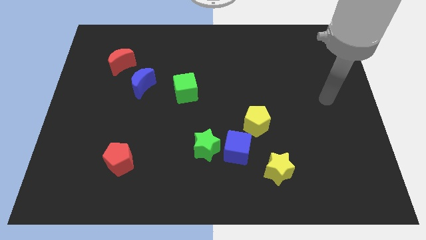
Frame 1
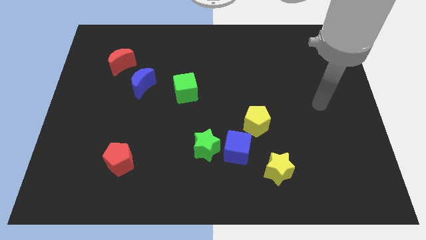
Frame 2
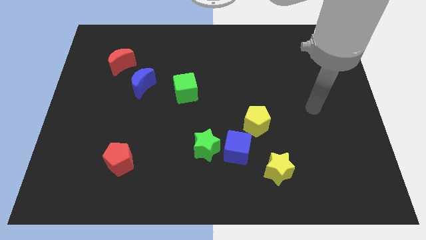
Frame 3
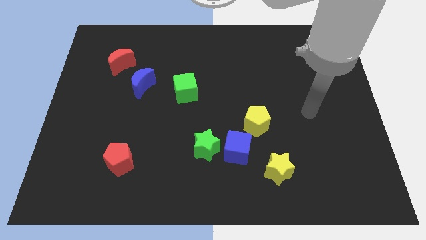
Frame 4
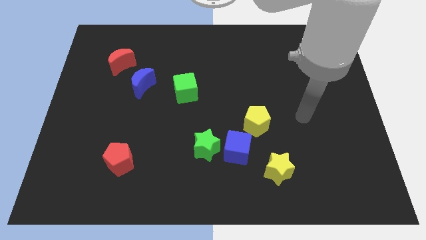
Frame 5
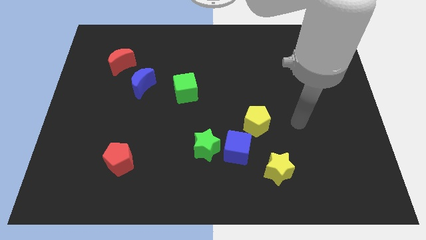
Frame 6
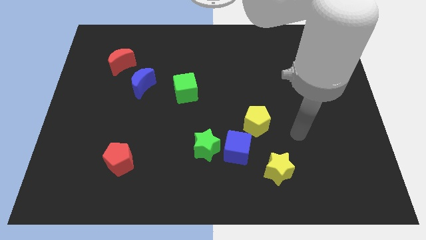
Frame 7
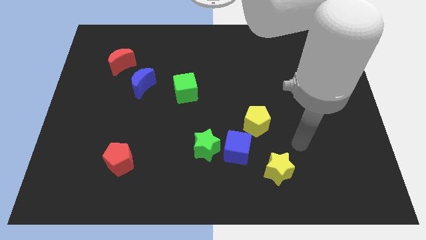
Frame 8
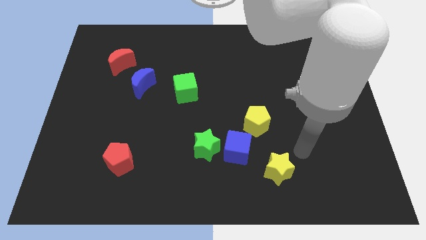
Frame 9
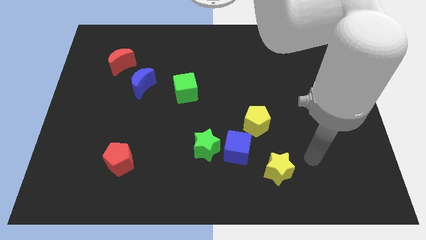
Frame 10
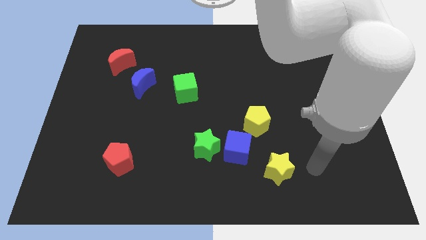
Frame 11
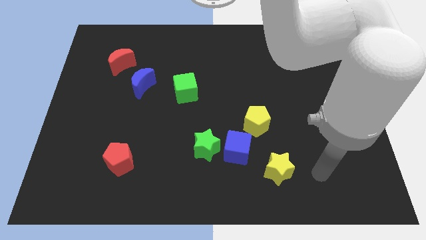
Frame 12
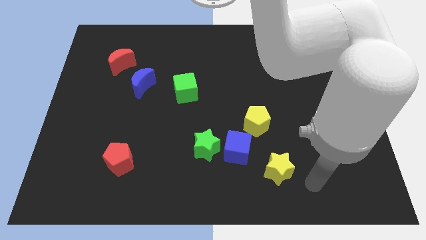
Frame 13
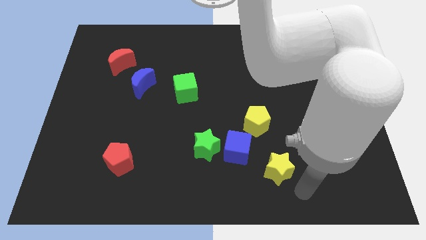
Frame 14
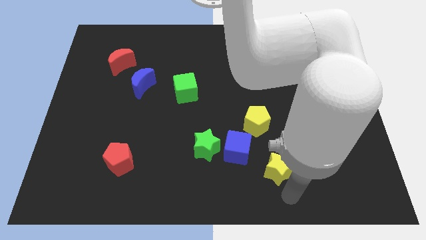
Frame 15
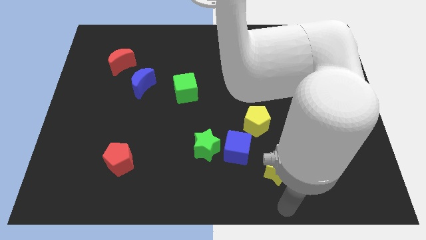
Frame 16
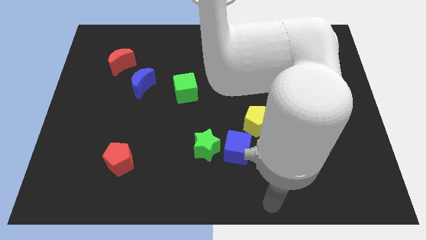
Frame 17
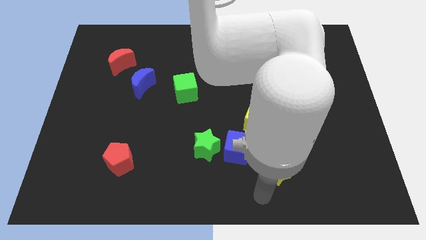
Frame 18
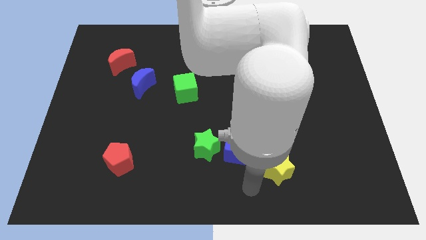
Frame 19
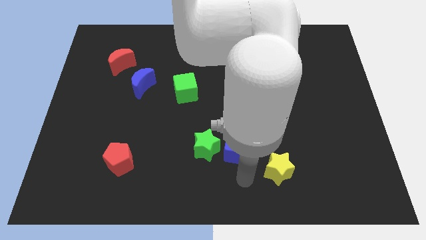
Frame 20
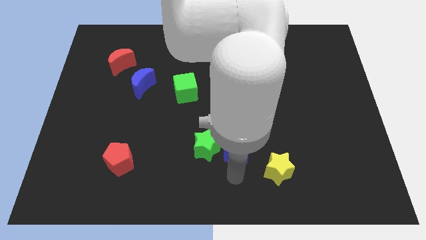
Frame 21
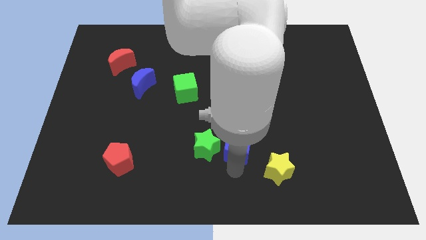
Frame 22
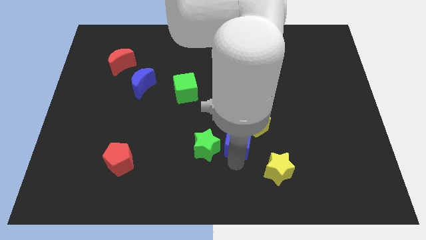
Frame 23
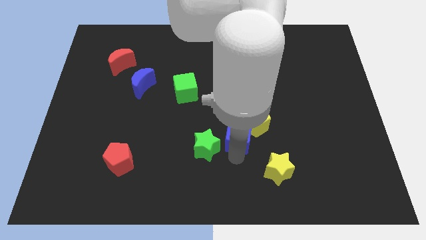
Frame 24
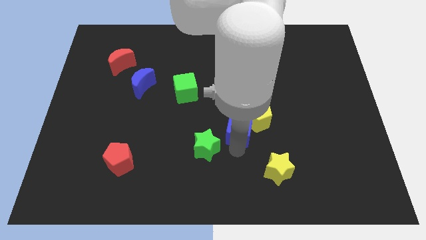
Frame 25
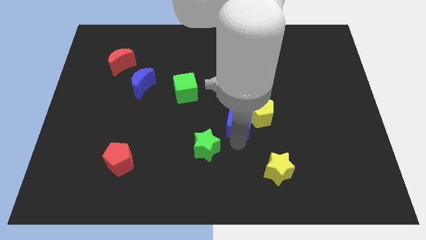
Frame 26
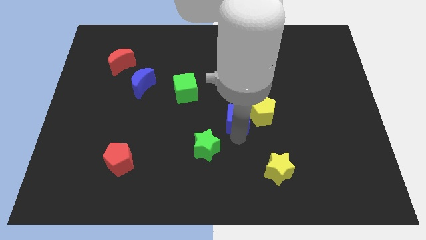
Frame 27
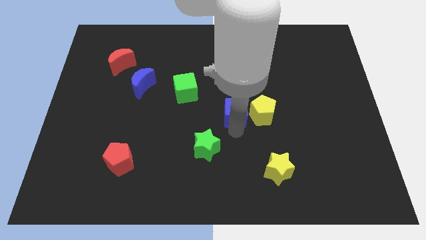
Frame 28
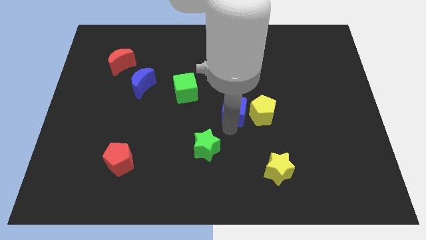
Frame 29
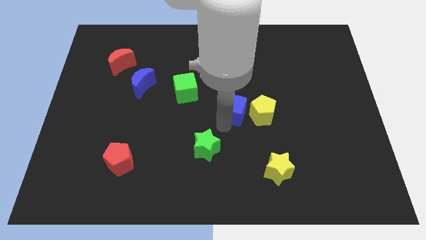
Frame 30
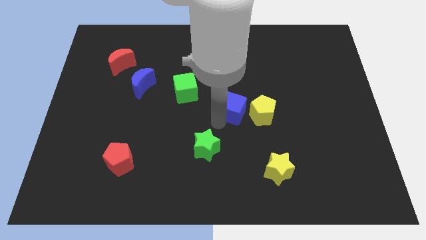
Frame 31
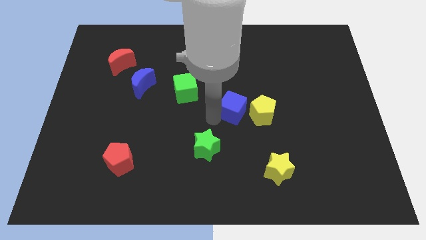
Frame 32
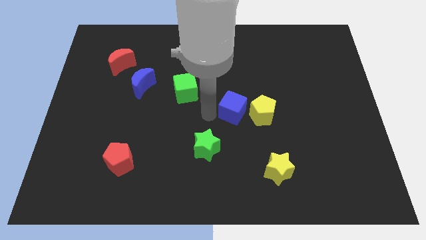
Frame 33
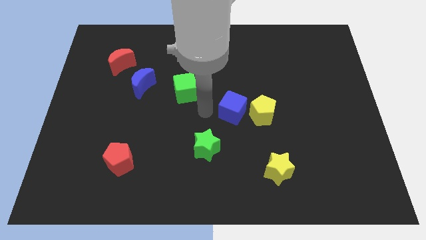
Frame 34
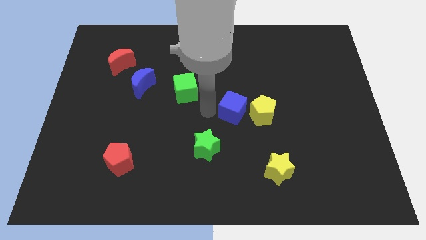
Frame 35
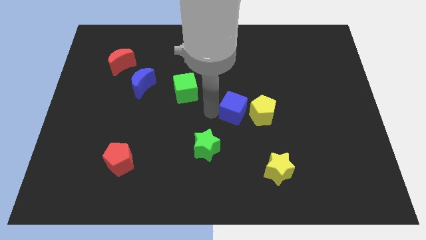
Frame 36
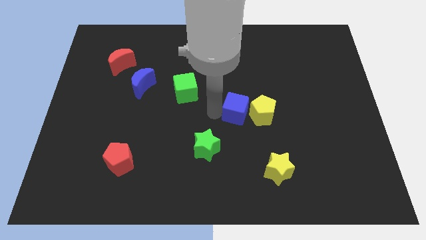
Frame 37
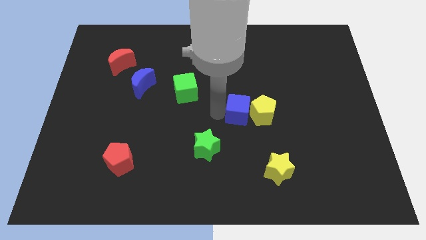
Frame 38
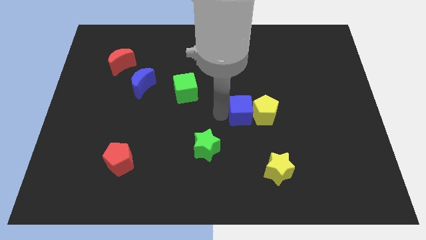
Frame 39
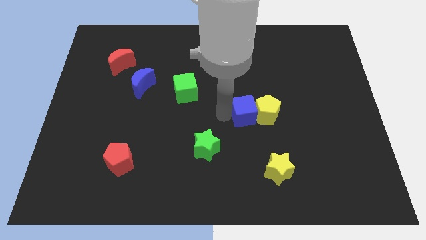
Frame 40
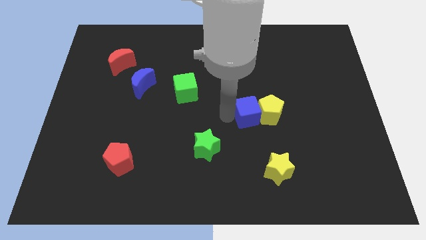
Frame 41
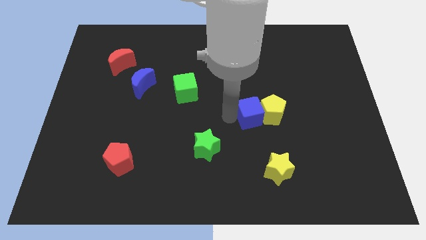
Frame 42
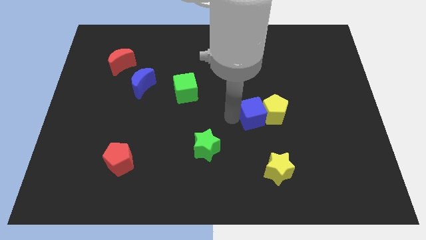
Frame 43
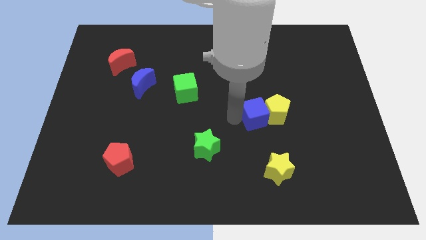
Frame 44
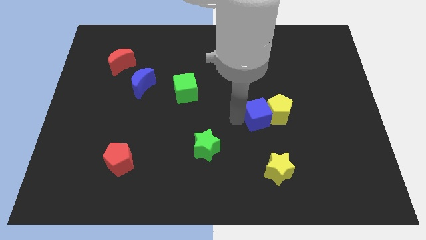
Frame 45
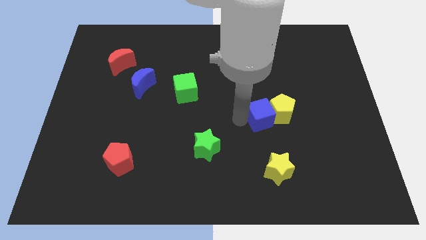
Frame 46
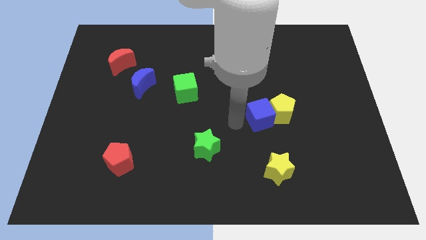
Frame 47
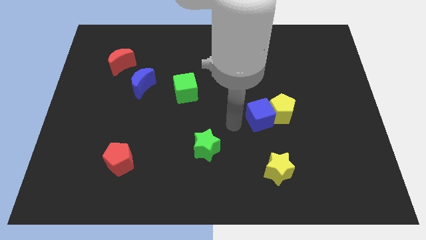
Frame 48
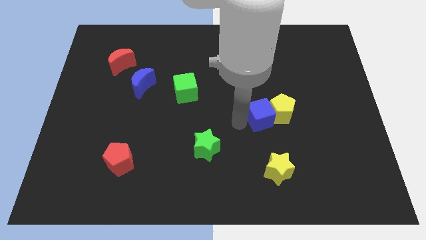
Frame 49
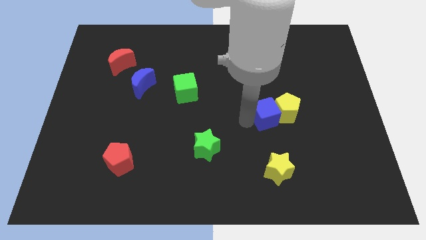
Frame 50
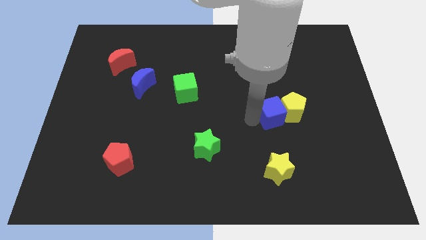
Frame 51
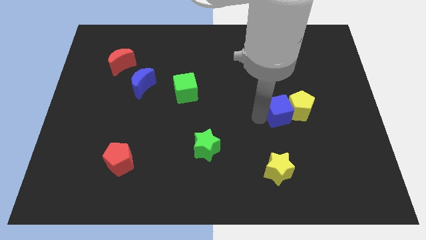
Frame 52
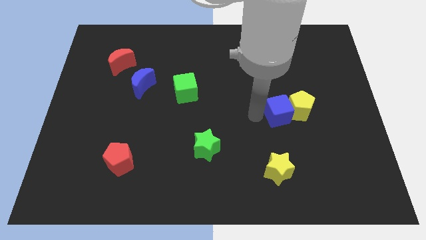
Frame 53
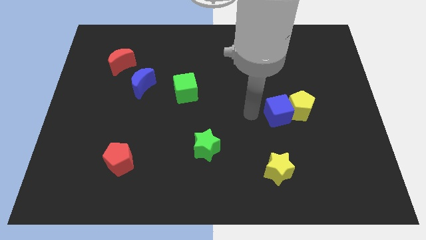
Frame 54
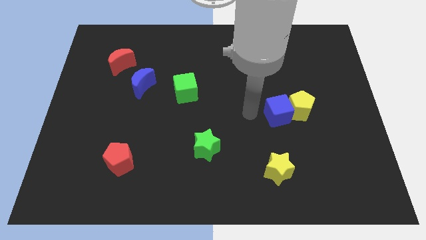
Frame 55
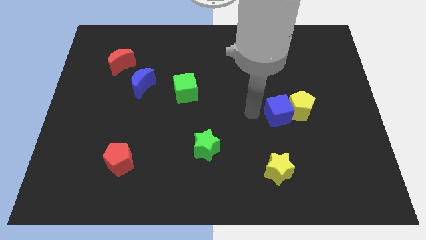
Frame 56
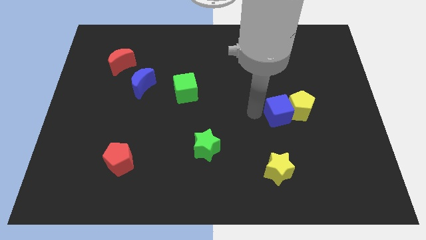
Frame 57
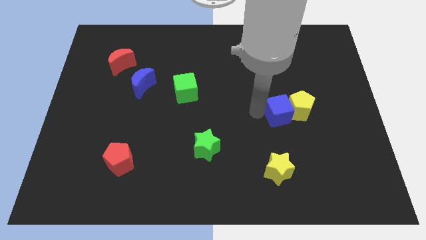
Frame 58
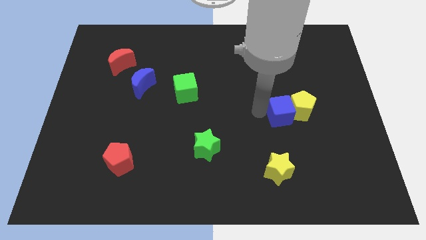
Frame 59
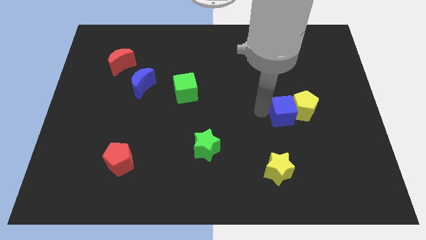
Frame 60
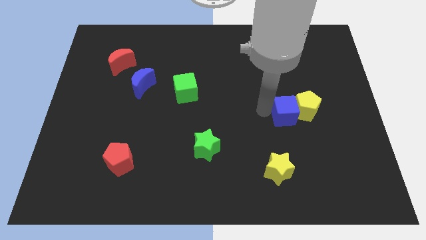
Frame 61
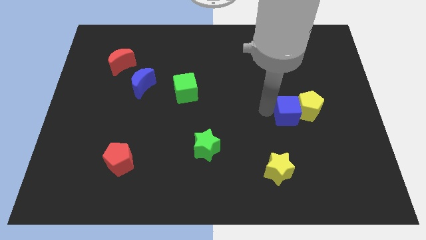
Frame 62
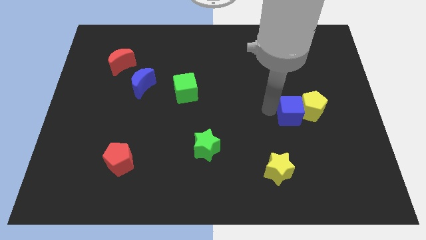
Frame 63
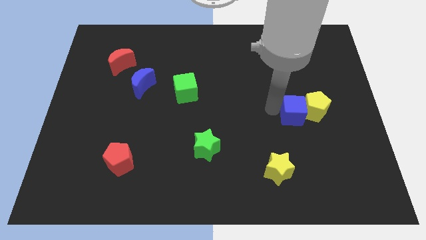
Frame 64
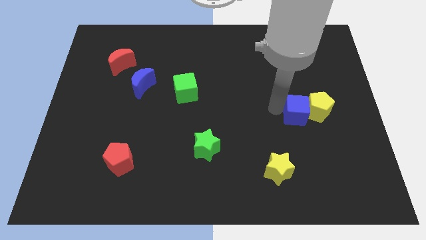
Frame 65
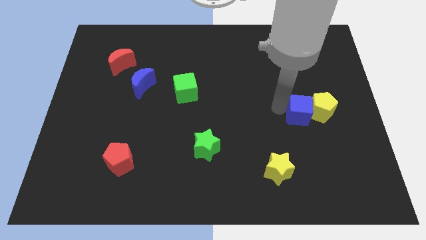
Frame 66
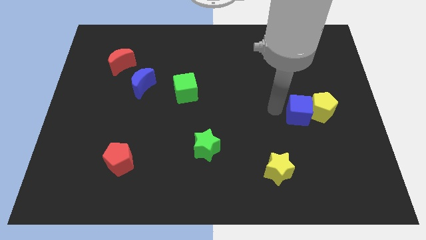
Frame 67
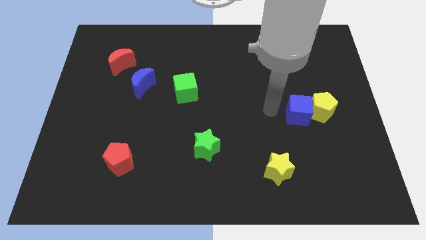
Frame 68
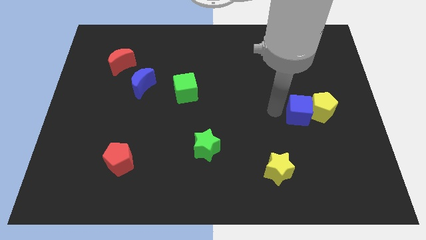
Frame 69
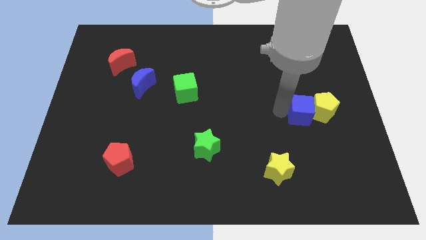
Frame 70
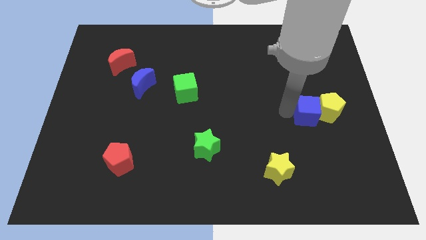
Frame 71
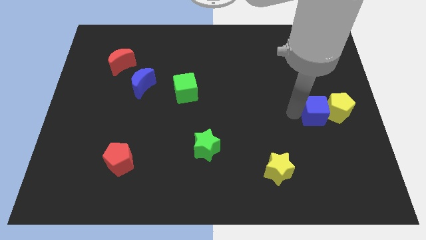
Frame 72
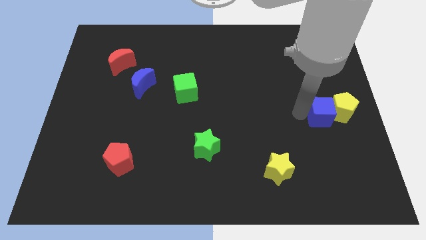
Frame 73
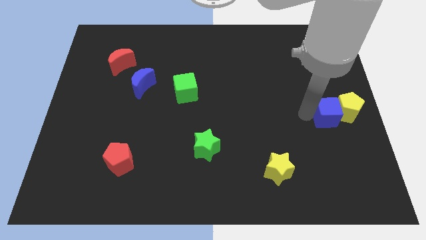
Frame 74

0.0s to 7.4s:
move the blue cube to the right side of the board
